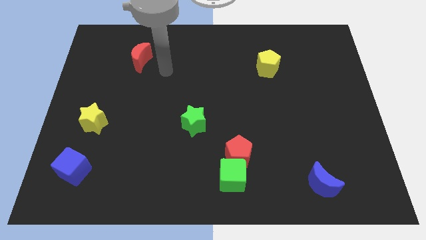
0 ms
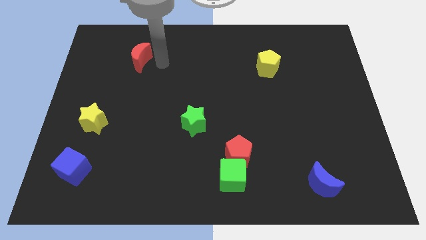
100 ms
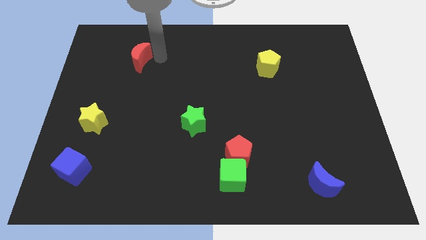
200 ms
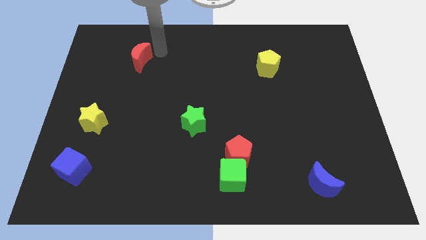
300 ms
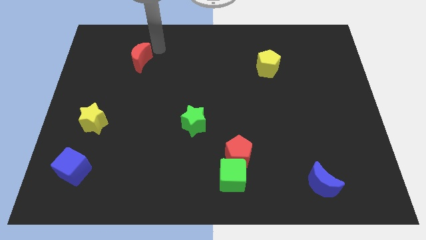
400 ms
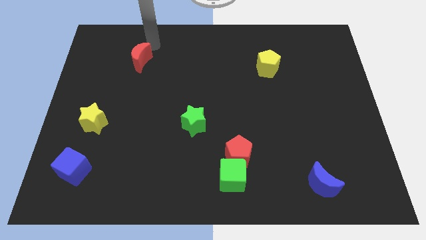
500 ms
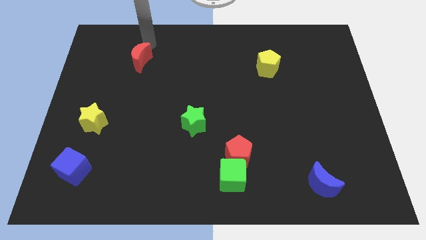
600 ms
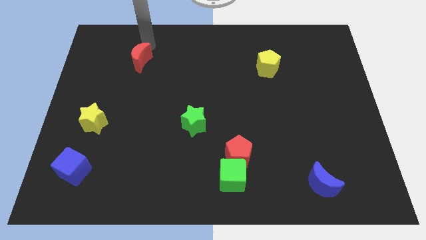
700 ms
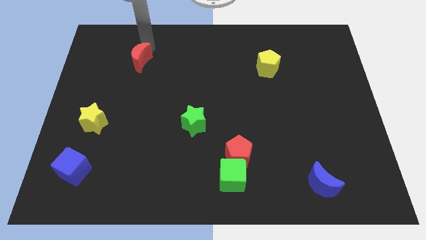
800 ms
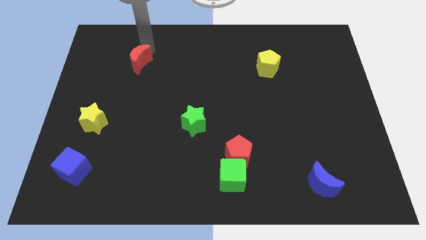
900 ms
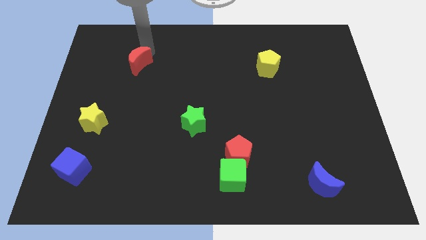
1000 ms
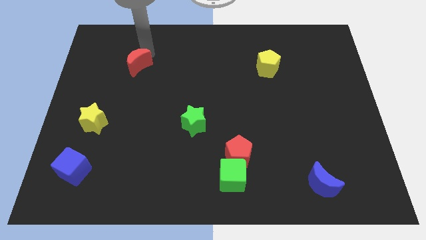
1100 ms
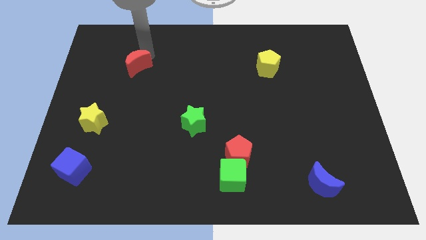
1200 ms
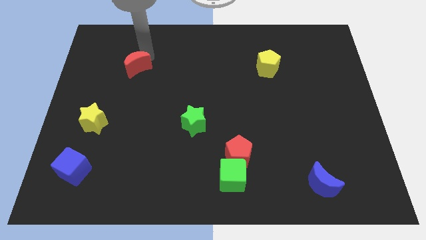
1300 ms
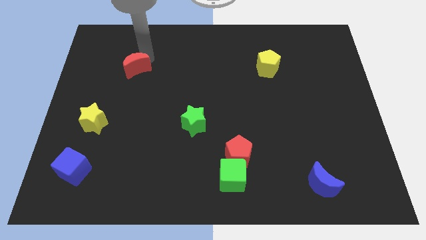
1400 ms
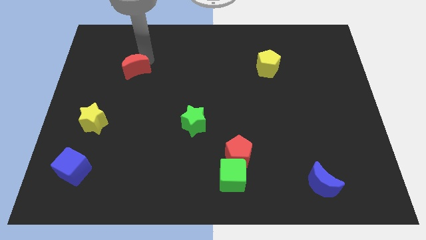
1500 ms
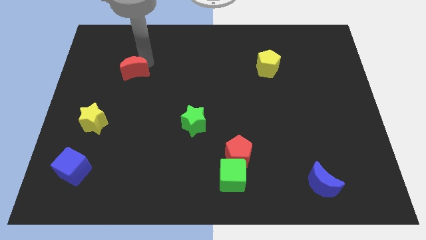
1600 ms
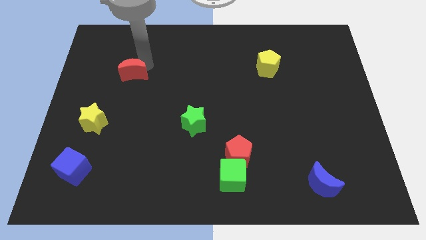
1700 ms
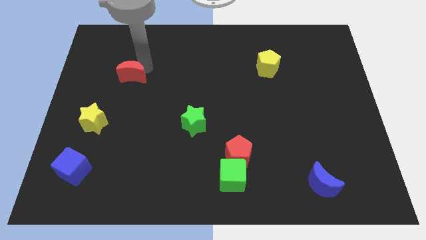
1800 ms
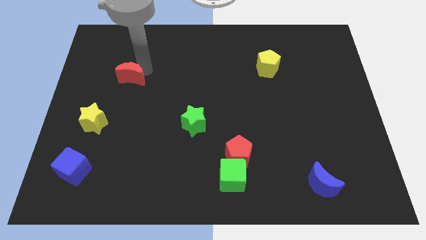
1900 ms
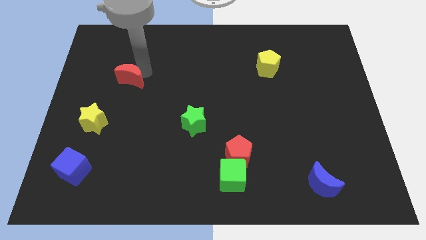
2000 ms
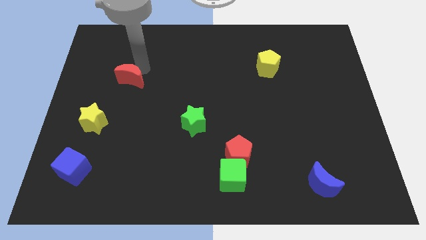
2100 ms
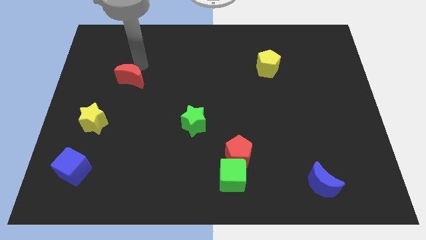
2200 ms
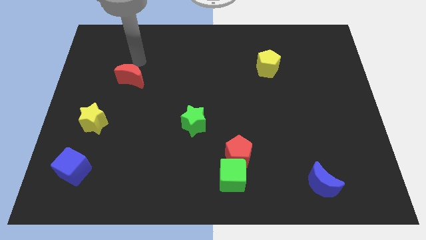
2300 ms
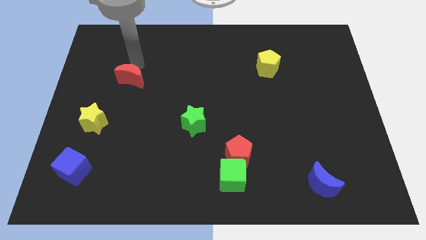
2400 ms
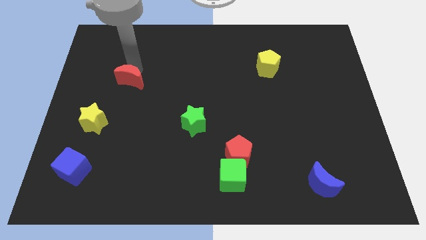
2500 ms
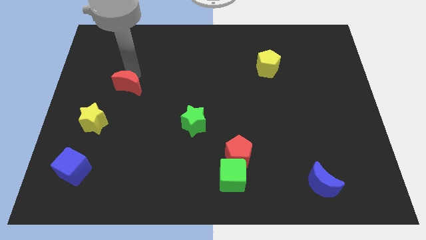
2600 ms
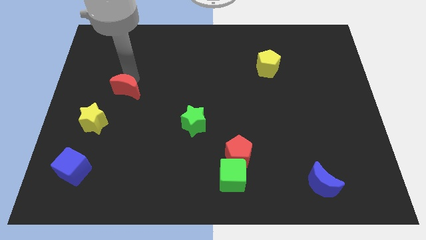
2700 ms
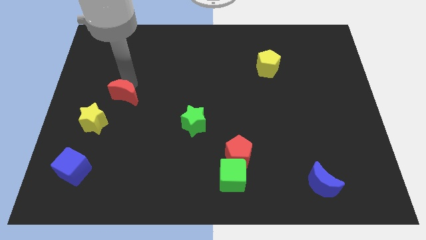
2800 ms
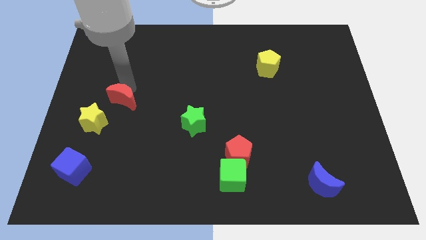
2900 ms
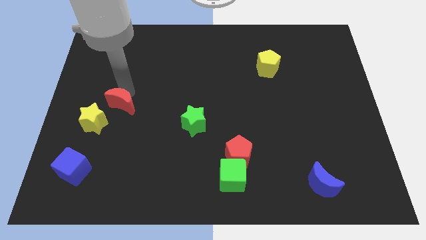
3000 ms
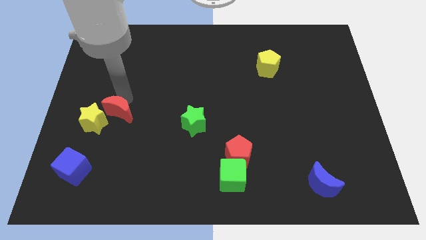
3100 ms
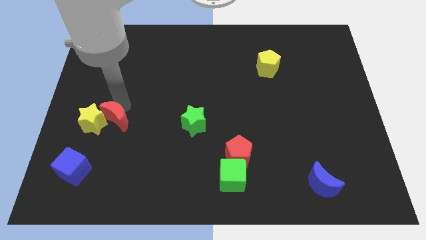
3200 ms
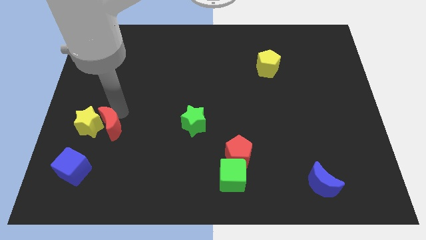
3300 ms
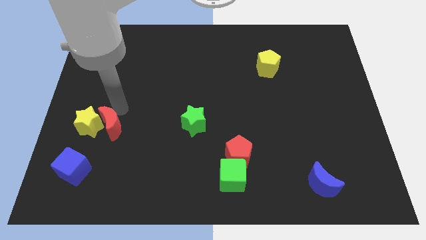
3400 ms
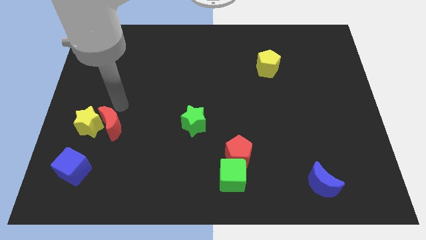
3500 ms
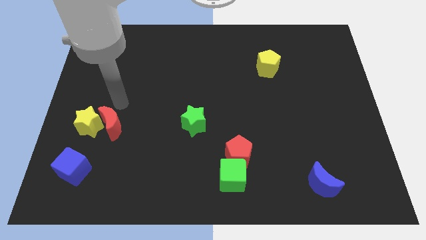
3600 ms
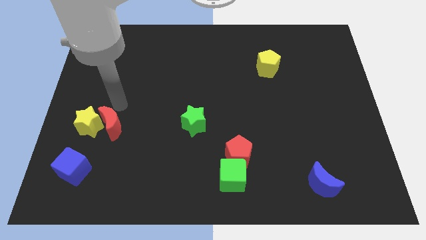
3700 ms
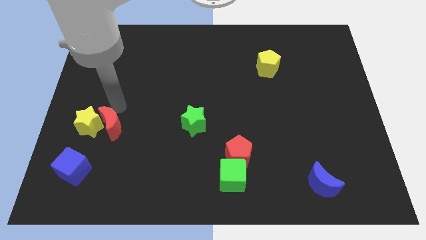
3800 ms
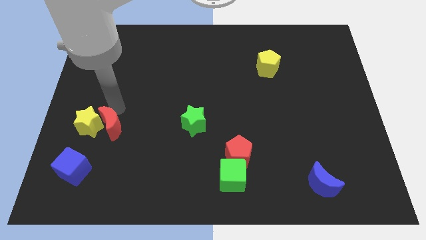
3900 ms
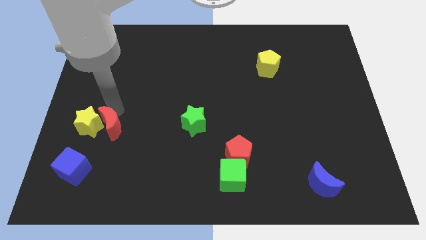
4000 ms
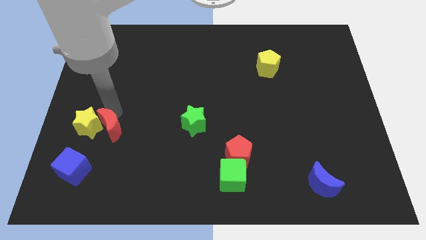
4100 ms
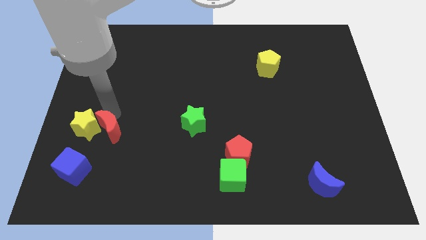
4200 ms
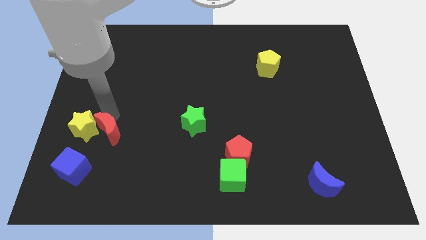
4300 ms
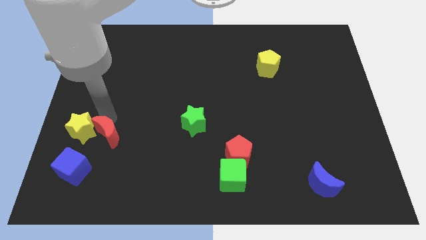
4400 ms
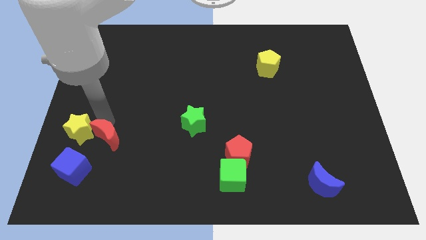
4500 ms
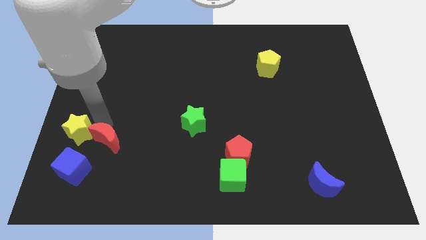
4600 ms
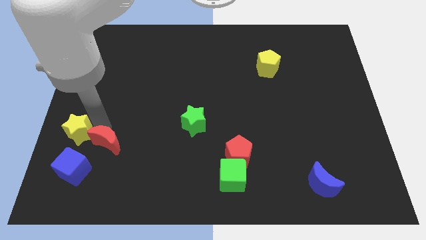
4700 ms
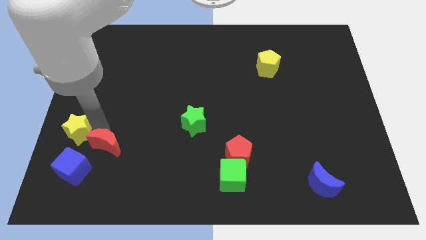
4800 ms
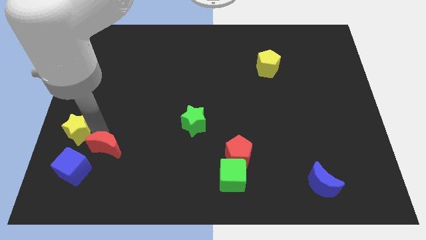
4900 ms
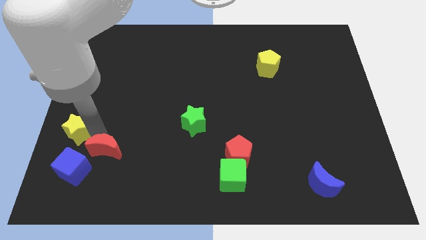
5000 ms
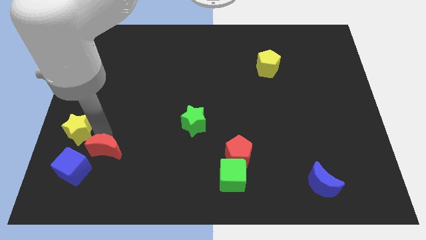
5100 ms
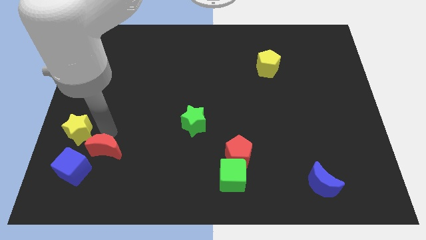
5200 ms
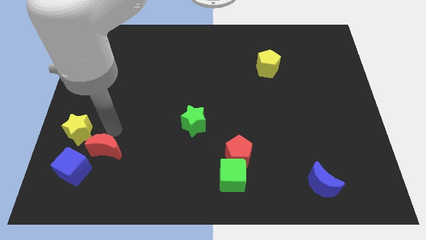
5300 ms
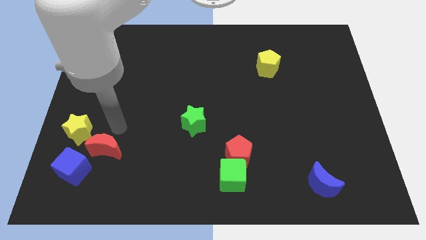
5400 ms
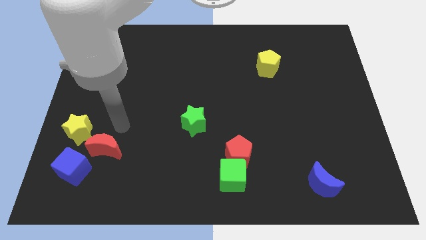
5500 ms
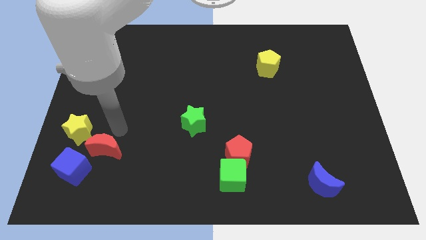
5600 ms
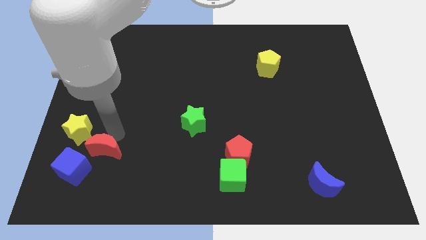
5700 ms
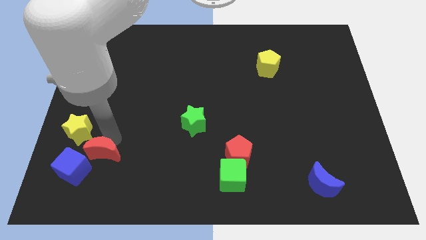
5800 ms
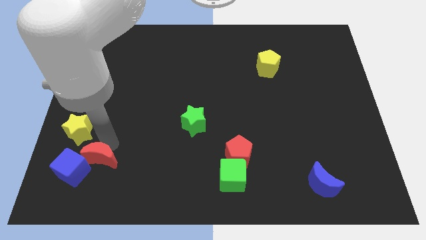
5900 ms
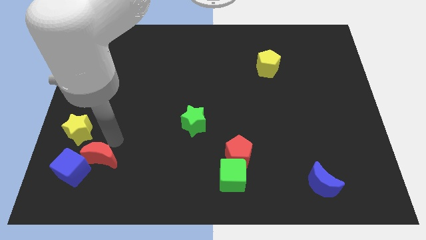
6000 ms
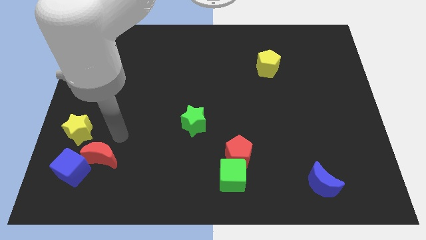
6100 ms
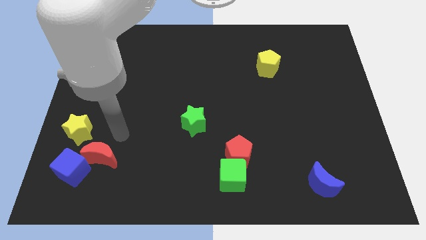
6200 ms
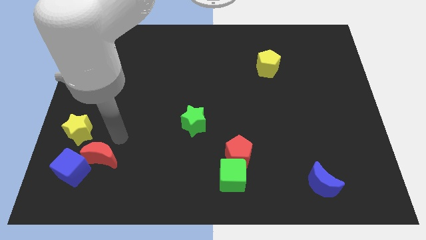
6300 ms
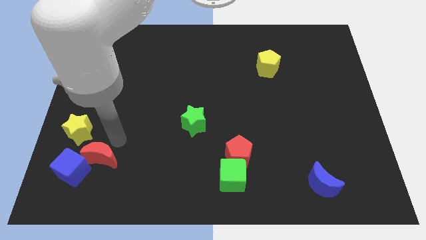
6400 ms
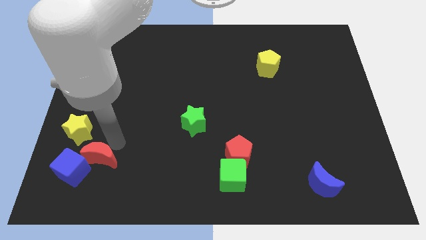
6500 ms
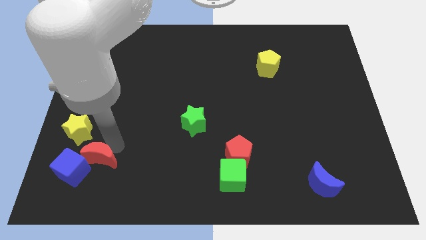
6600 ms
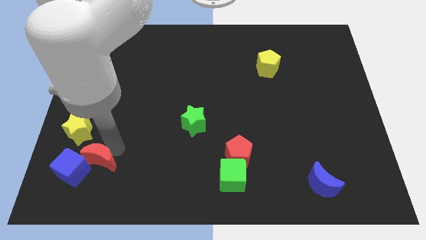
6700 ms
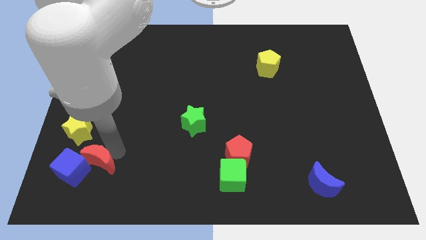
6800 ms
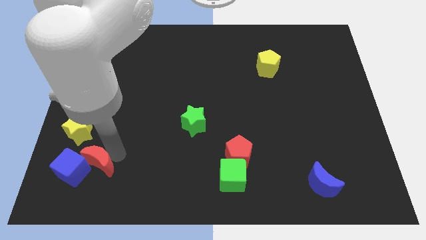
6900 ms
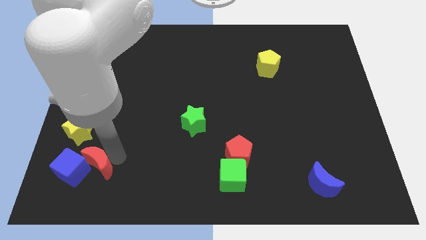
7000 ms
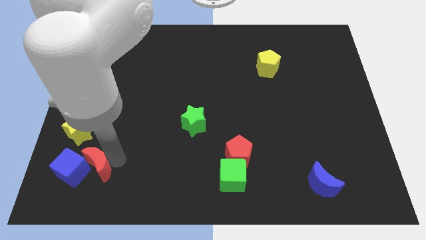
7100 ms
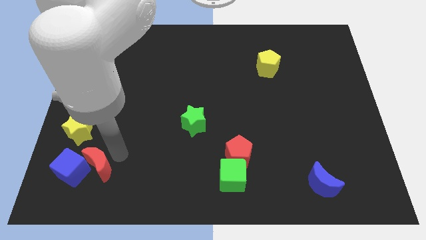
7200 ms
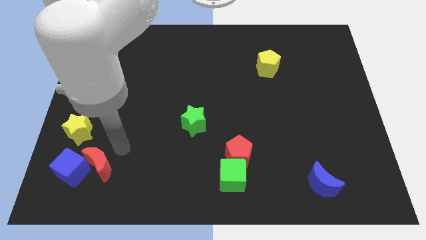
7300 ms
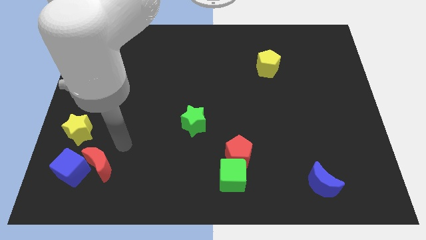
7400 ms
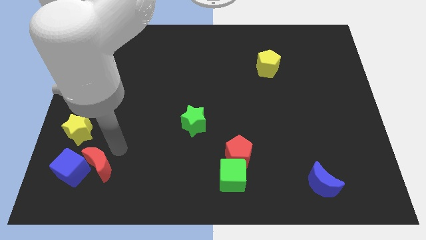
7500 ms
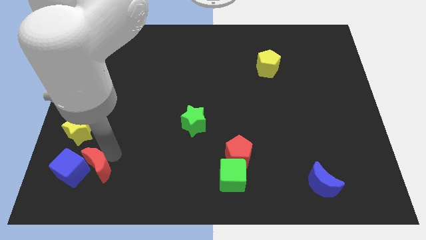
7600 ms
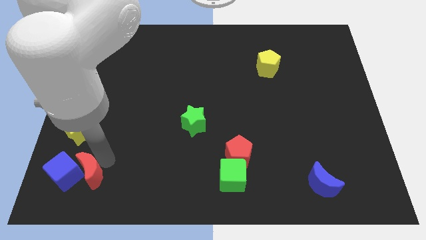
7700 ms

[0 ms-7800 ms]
put the red moon to the bottom of the yellow star
